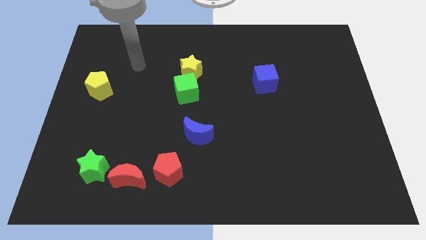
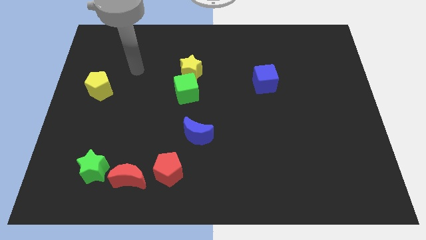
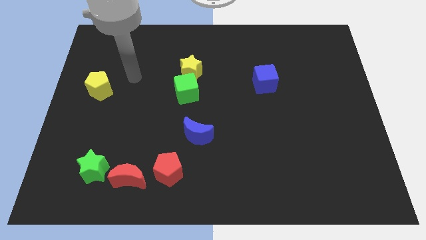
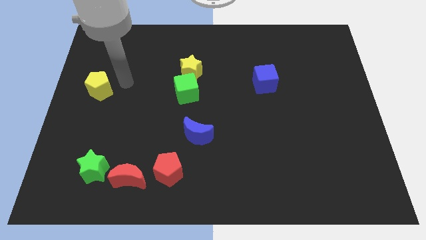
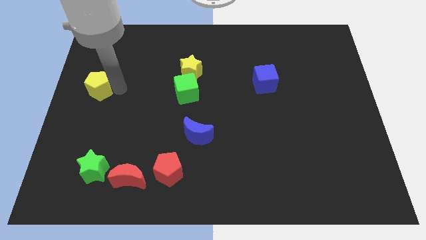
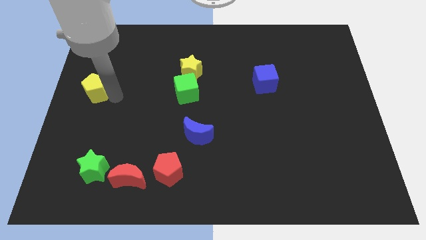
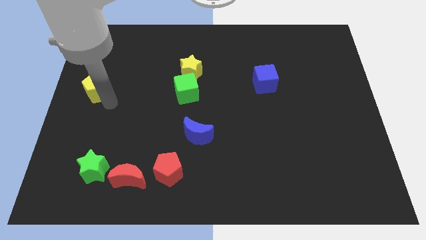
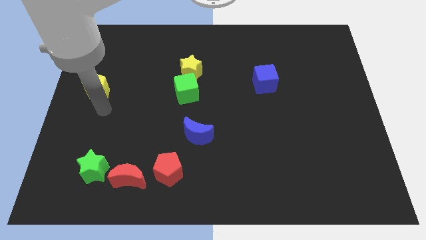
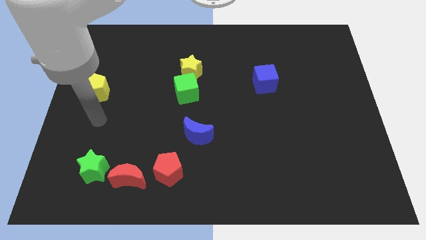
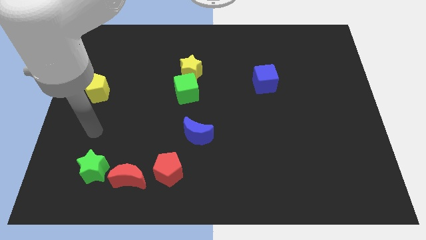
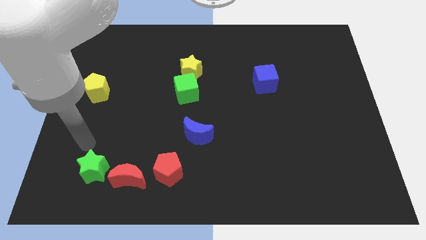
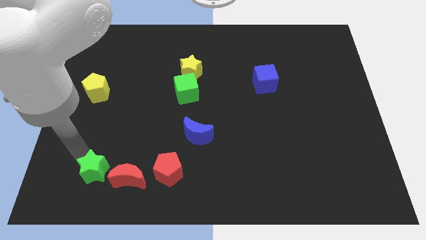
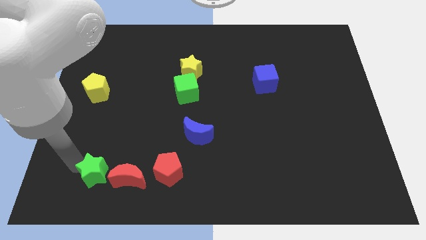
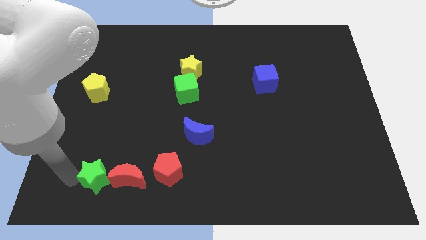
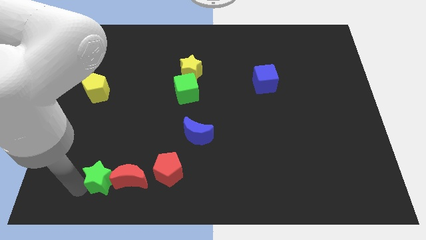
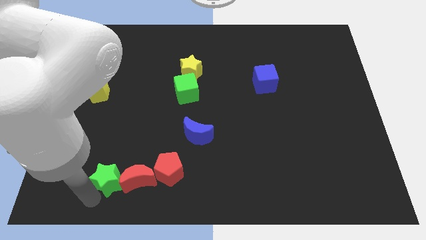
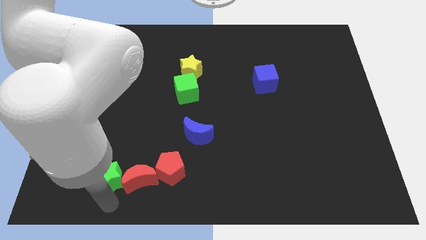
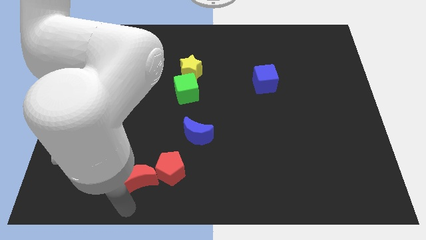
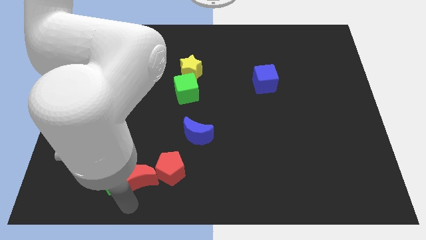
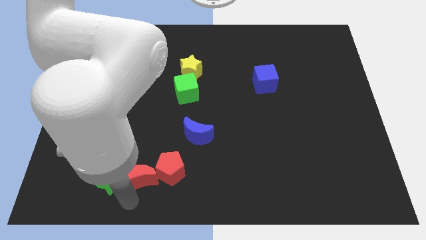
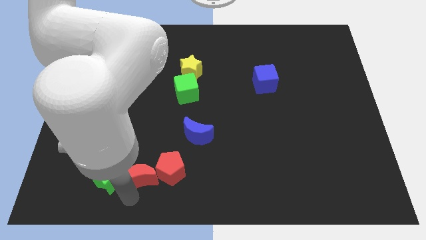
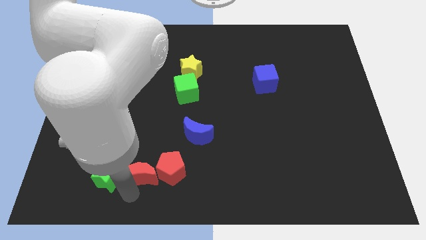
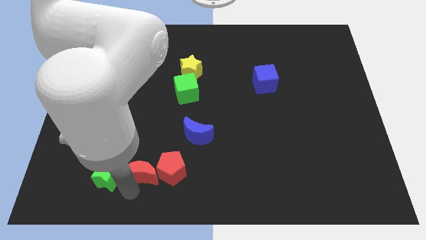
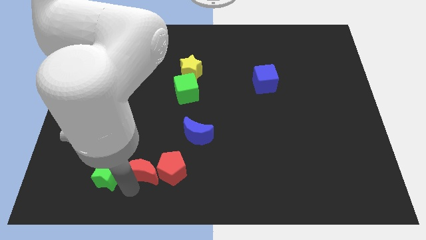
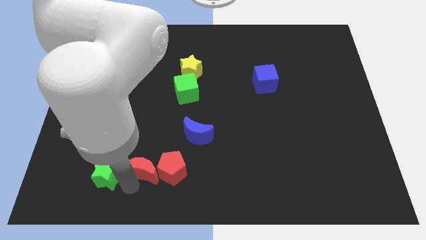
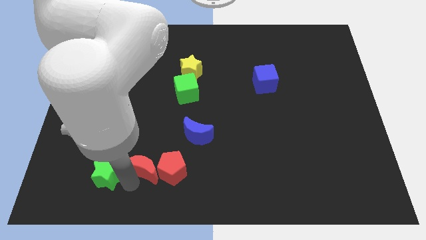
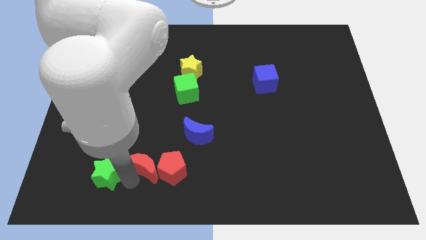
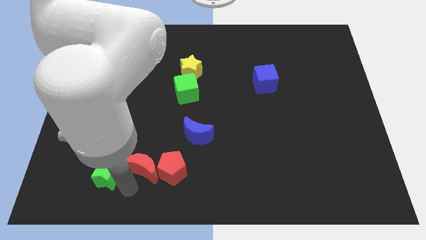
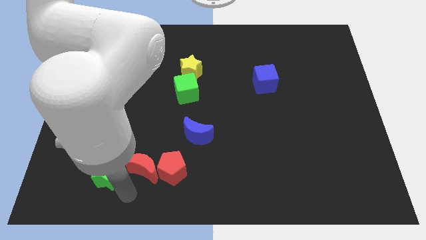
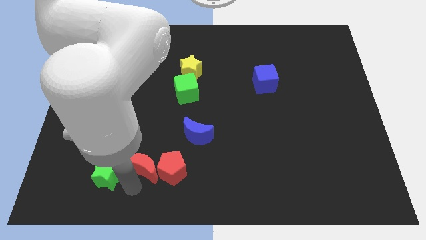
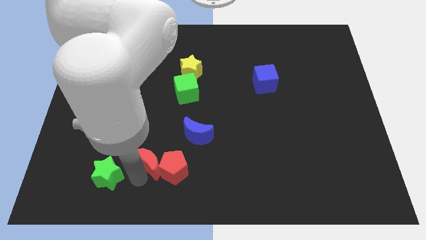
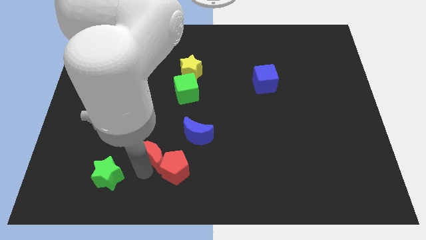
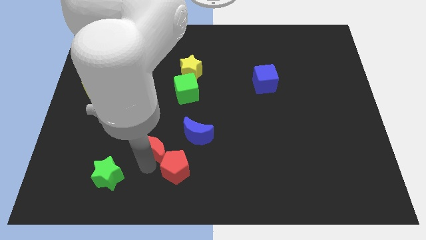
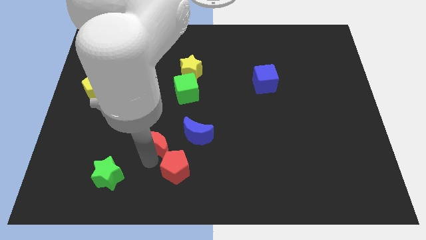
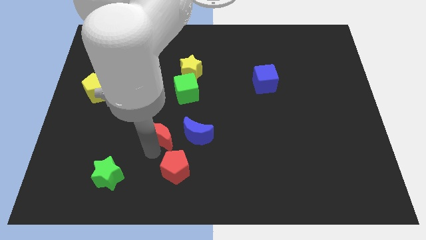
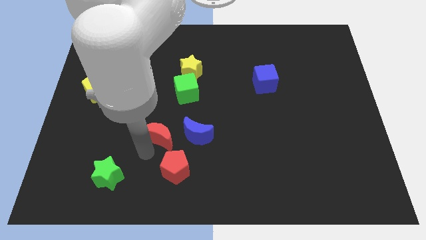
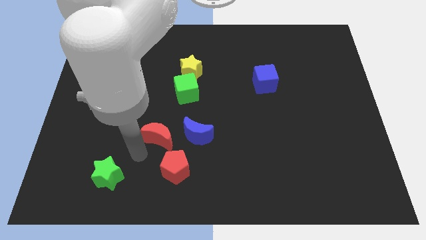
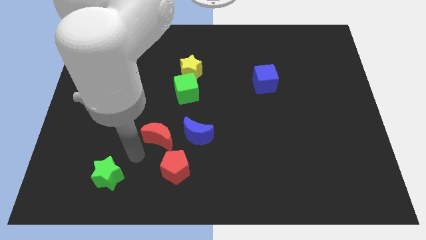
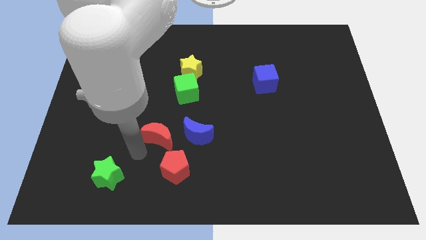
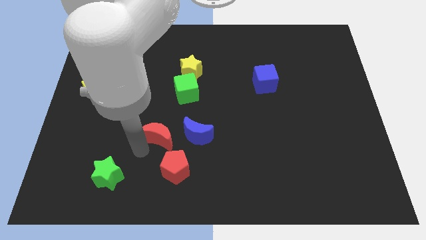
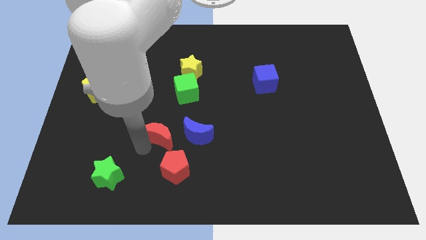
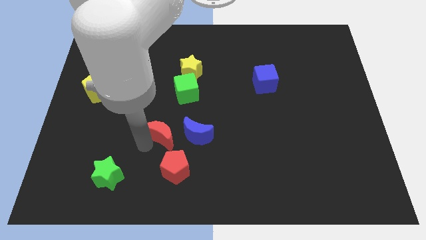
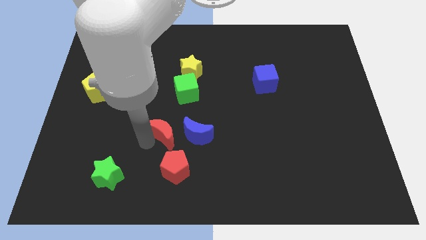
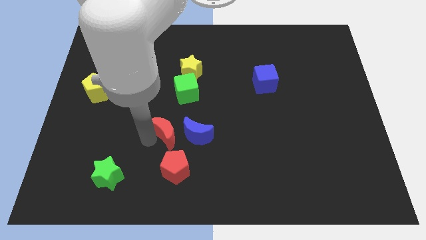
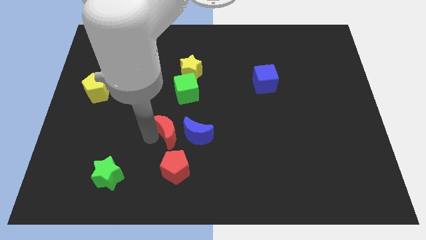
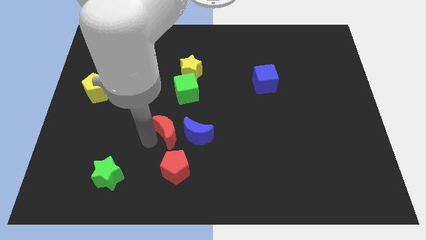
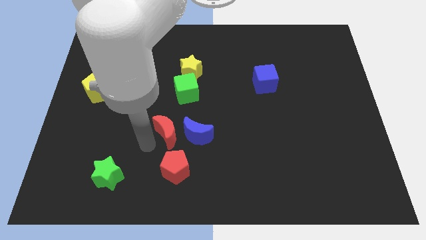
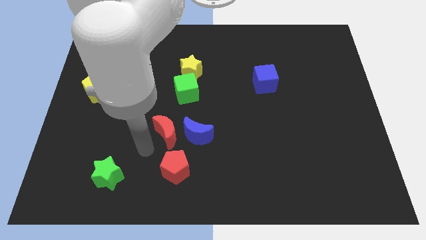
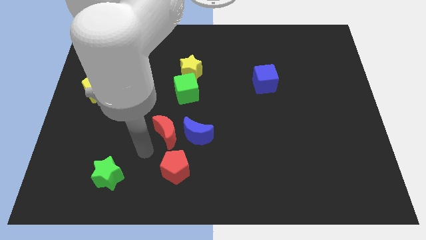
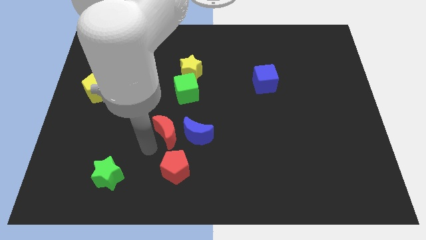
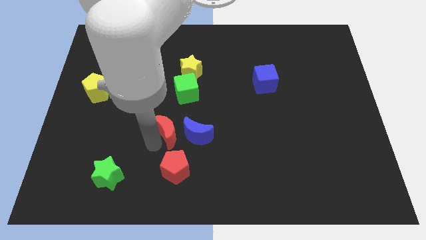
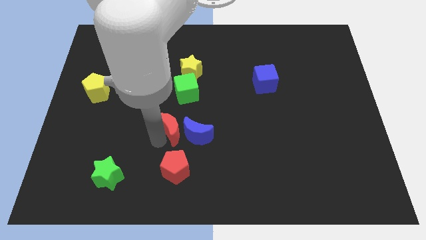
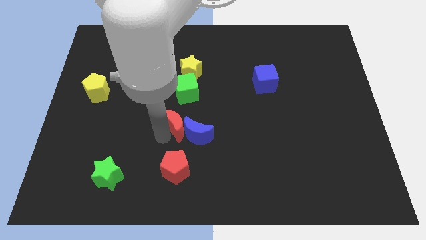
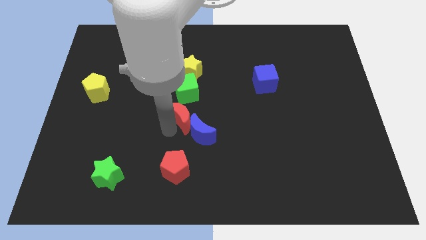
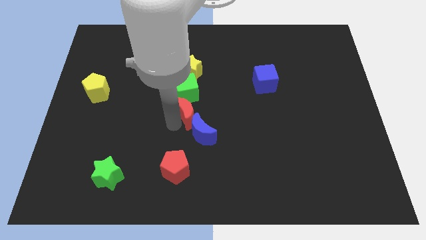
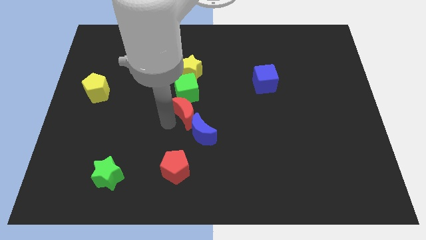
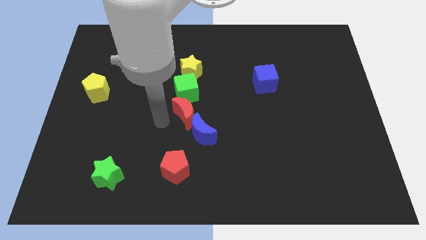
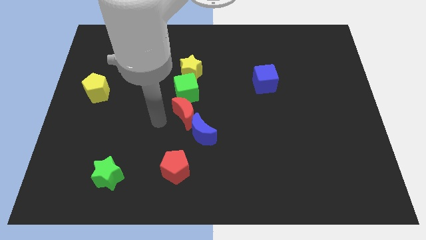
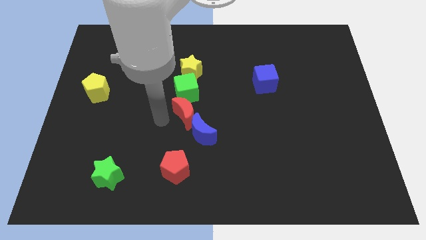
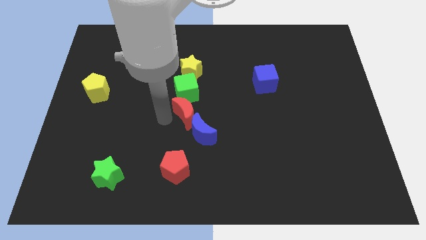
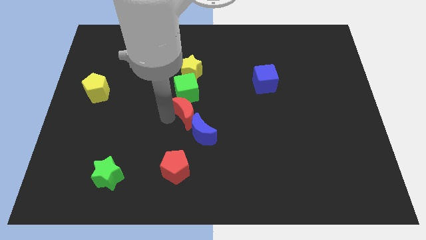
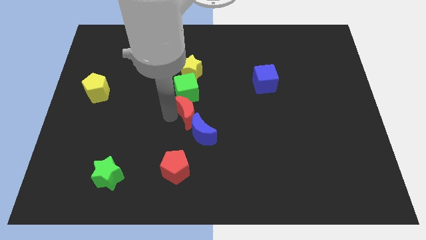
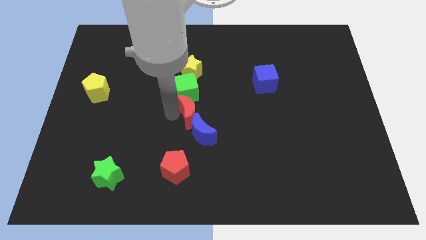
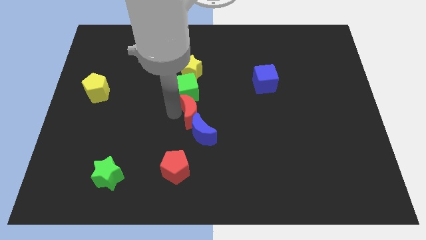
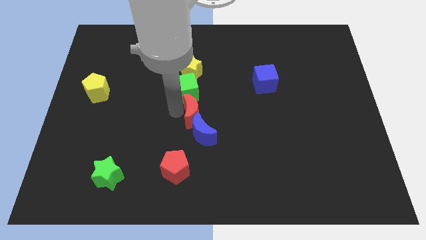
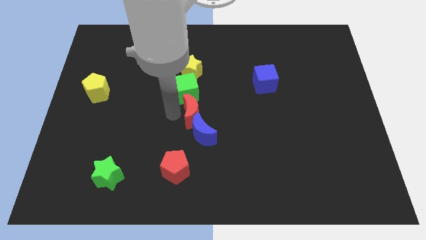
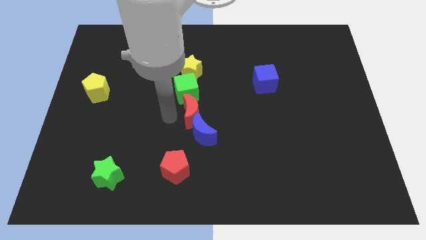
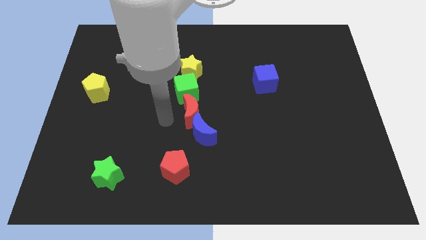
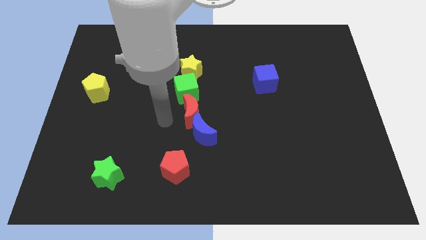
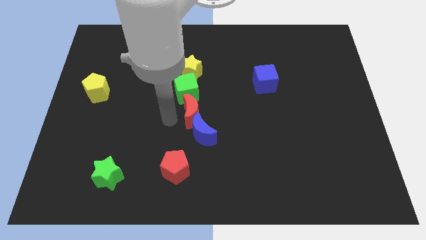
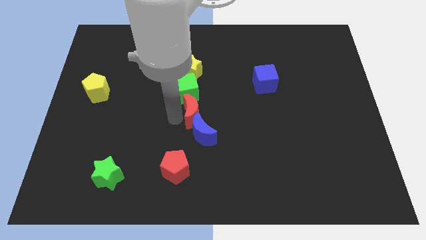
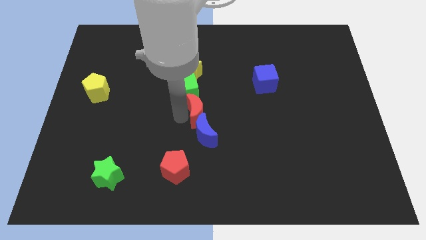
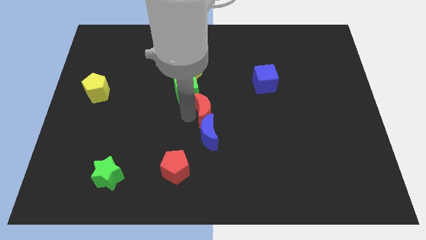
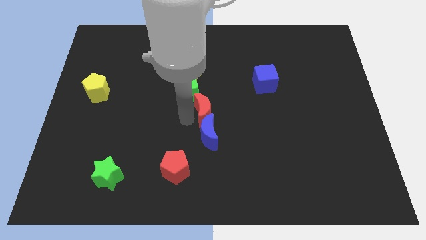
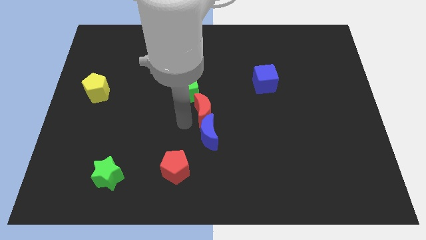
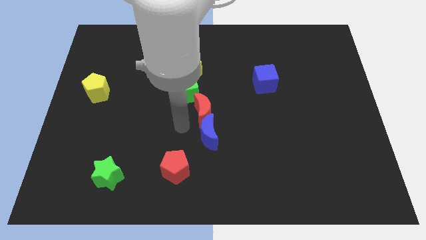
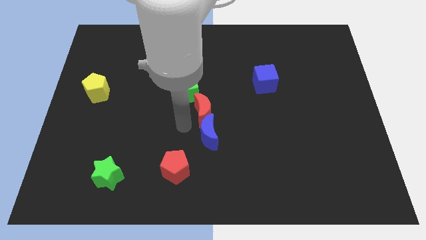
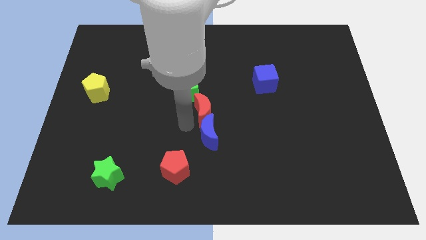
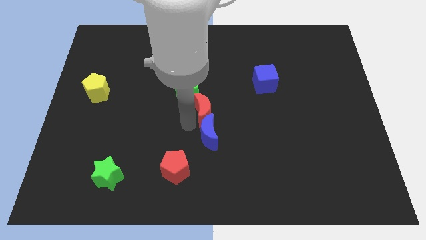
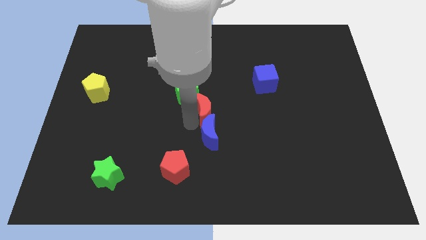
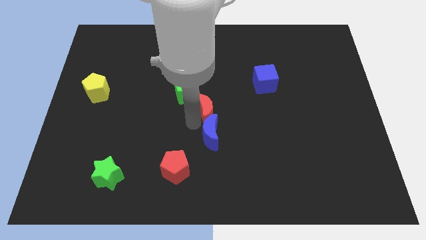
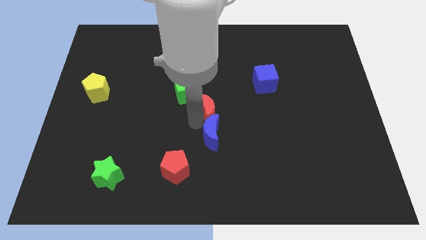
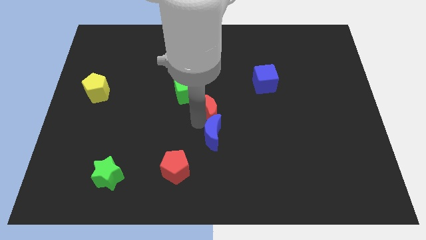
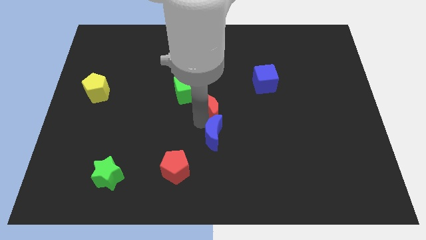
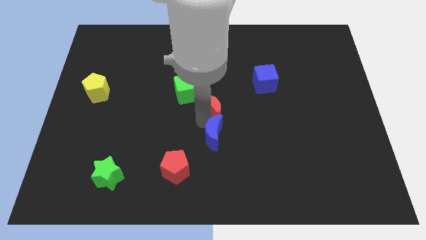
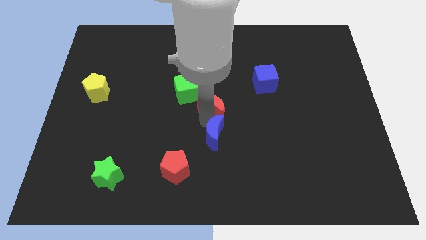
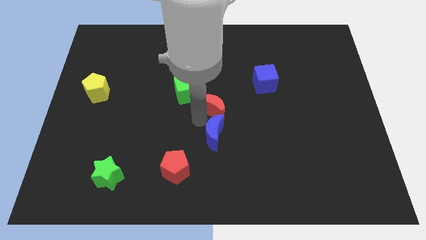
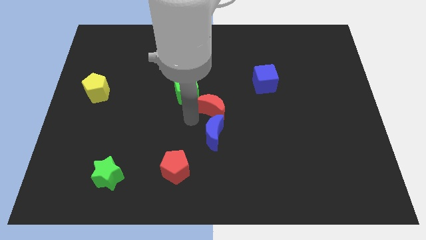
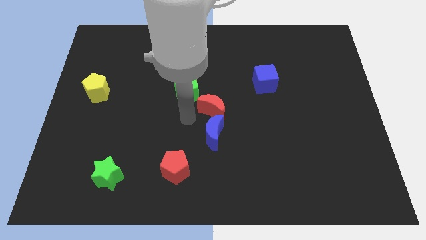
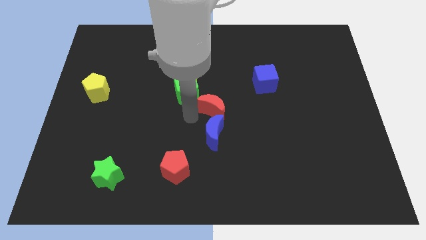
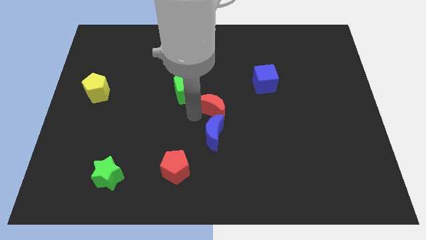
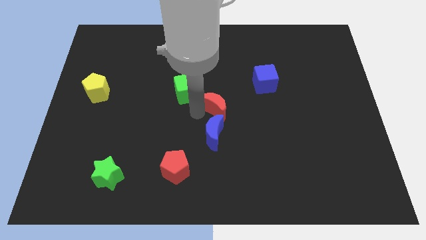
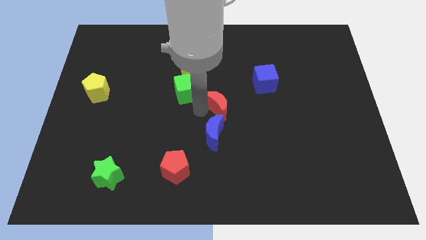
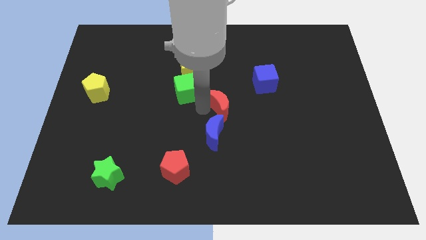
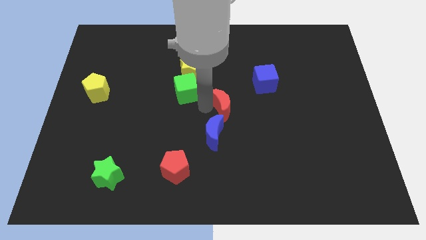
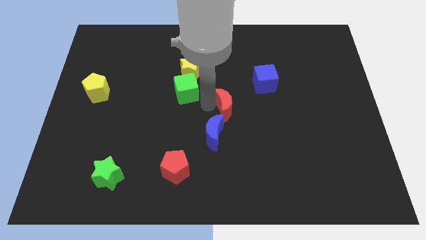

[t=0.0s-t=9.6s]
slide the red moon to the bottom left side of the blue cube
